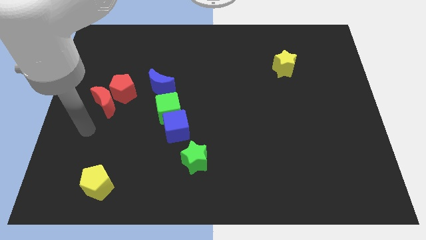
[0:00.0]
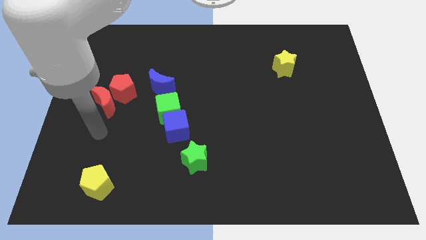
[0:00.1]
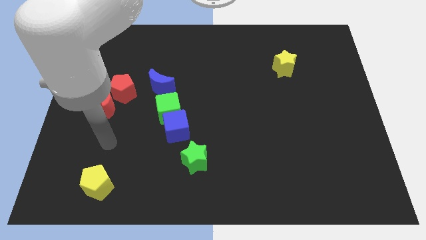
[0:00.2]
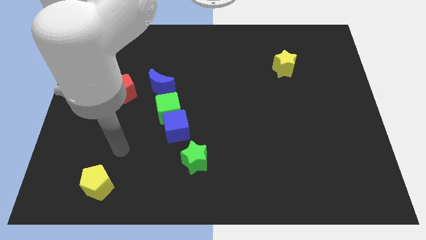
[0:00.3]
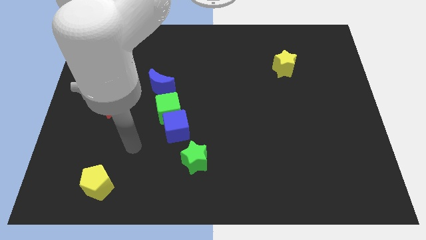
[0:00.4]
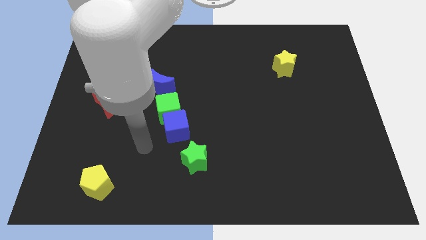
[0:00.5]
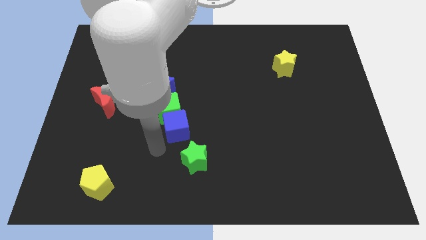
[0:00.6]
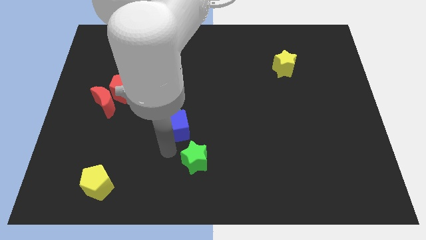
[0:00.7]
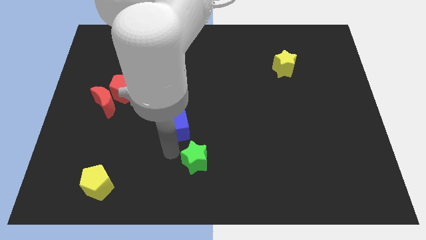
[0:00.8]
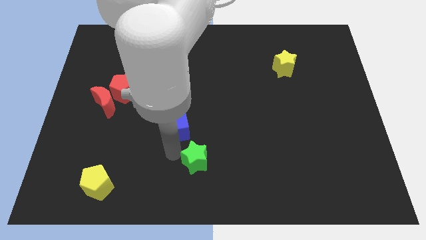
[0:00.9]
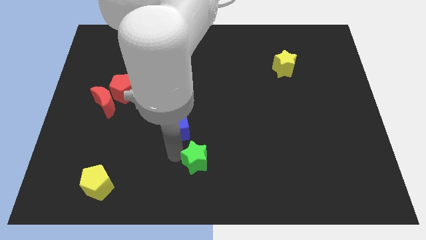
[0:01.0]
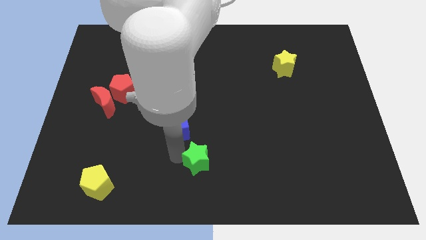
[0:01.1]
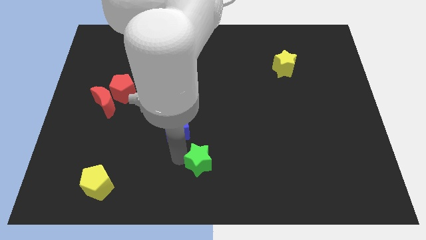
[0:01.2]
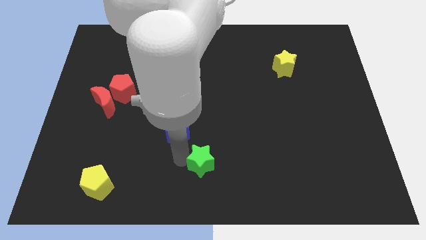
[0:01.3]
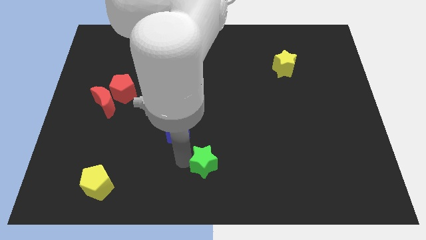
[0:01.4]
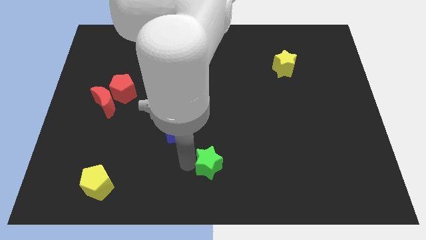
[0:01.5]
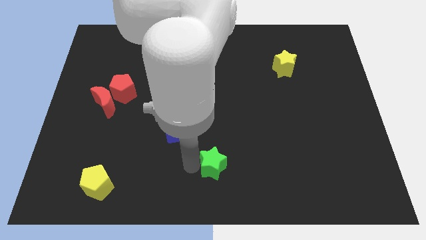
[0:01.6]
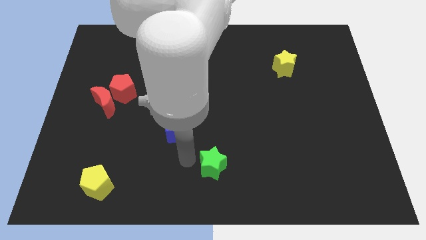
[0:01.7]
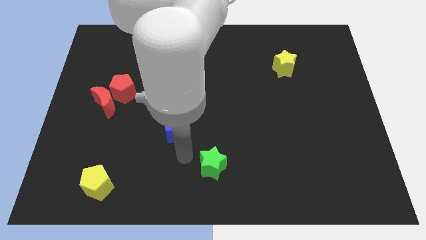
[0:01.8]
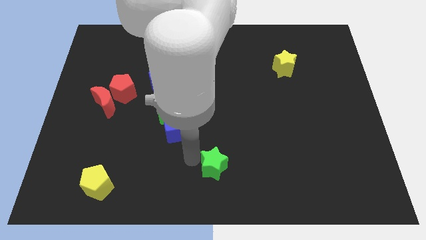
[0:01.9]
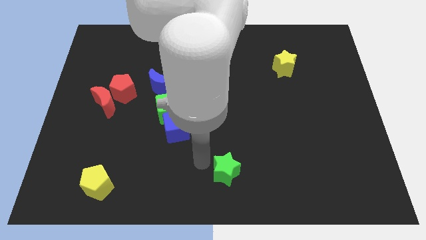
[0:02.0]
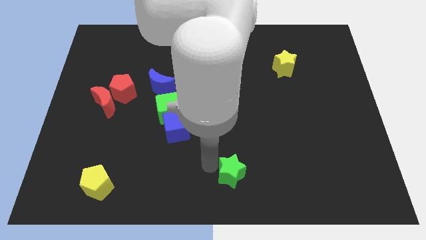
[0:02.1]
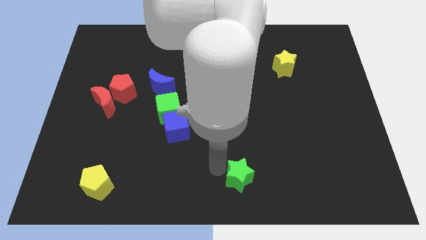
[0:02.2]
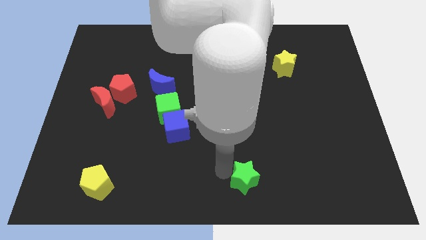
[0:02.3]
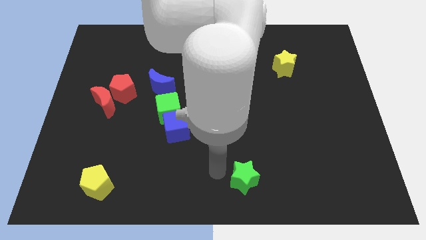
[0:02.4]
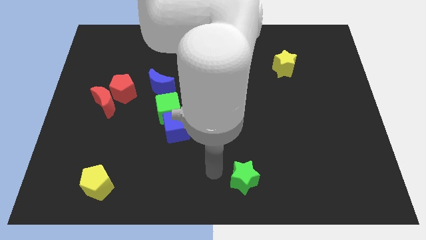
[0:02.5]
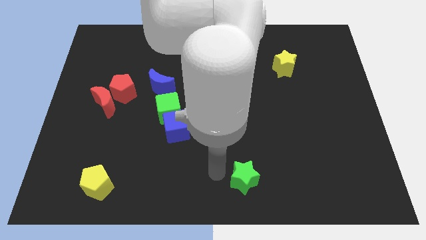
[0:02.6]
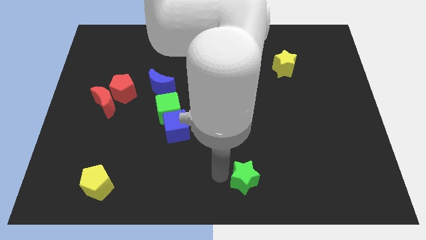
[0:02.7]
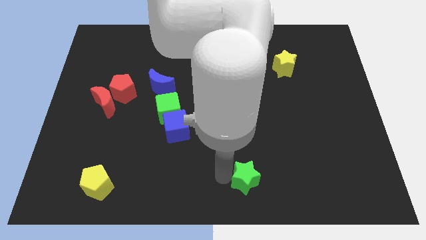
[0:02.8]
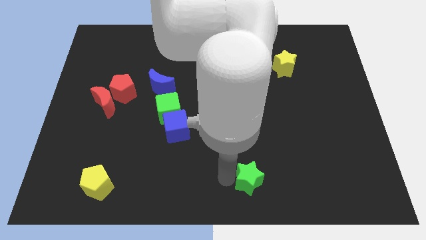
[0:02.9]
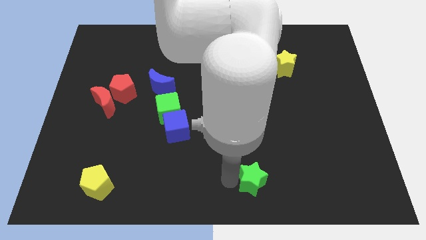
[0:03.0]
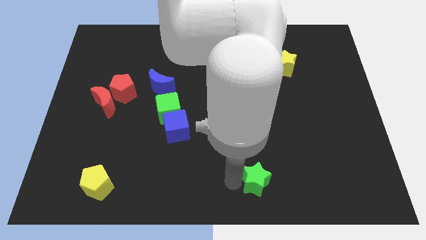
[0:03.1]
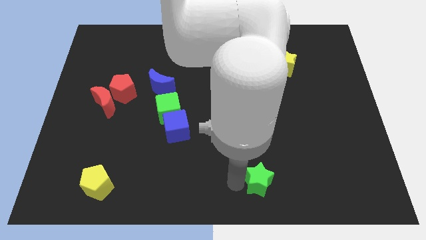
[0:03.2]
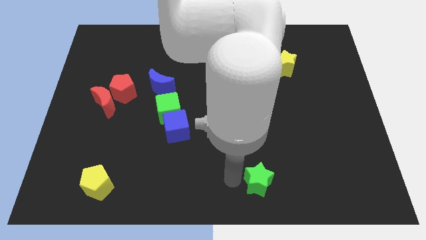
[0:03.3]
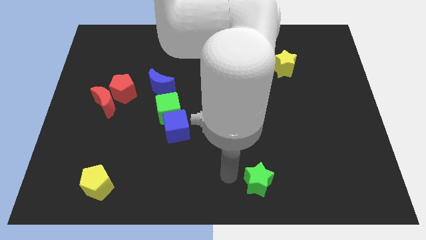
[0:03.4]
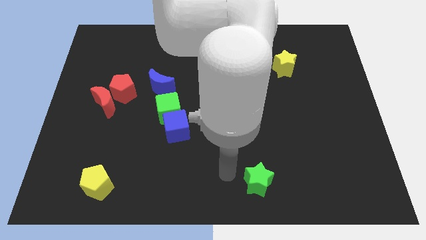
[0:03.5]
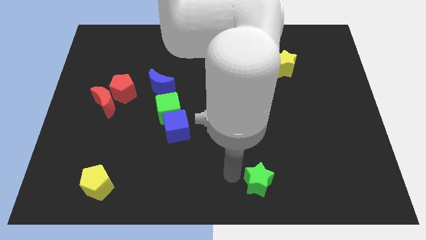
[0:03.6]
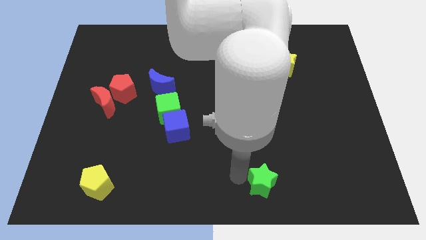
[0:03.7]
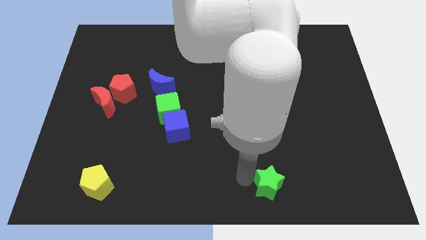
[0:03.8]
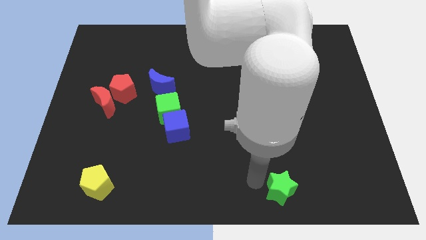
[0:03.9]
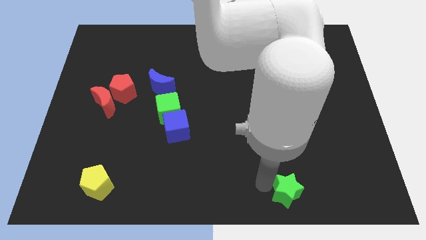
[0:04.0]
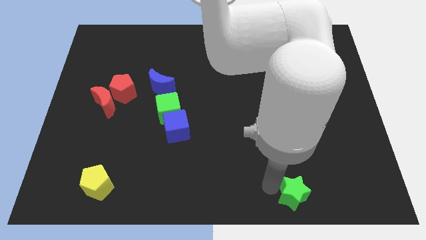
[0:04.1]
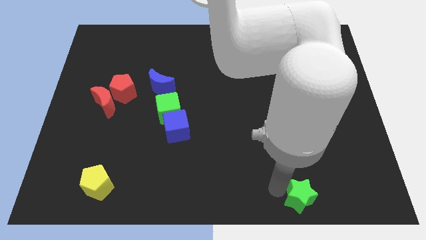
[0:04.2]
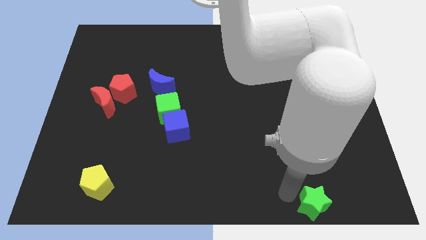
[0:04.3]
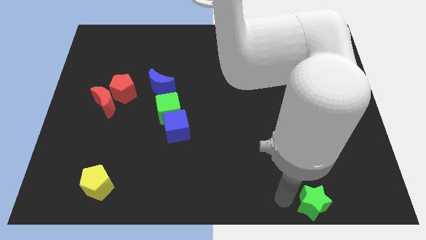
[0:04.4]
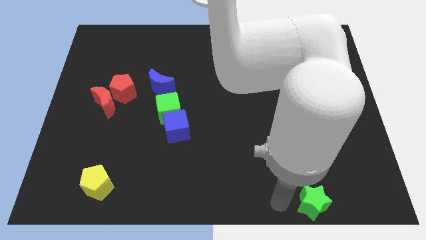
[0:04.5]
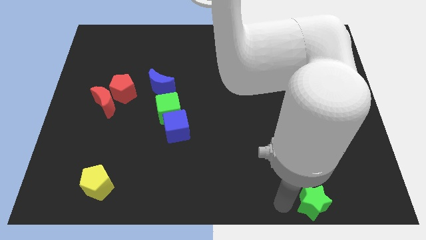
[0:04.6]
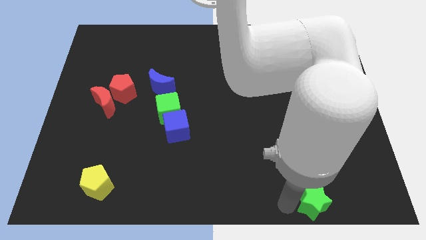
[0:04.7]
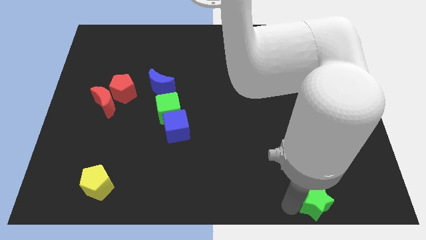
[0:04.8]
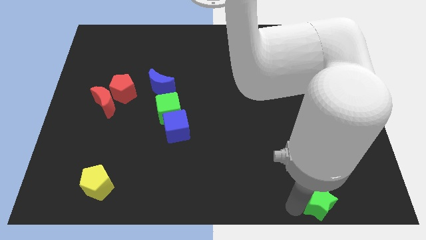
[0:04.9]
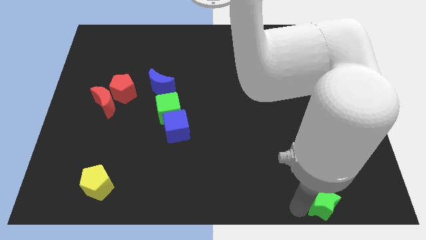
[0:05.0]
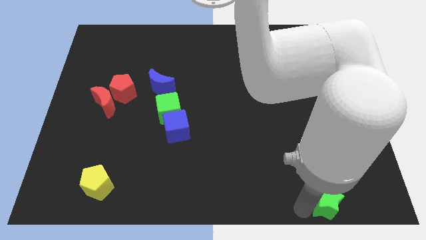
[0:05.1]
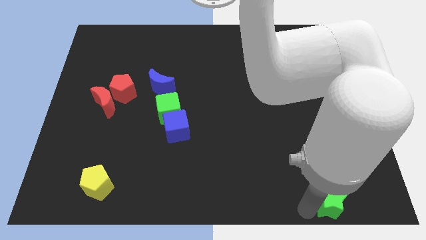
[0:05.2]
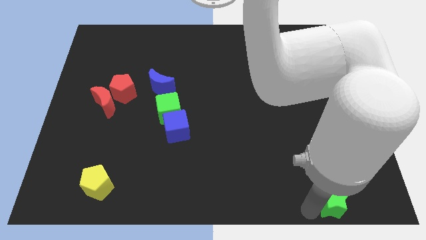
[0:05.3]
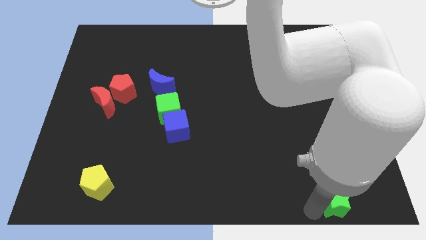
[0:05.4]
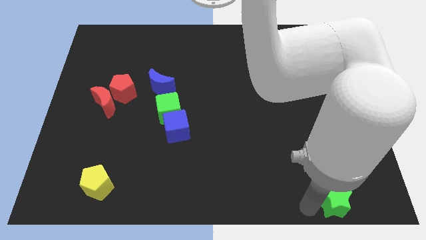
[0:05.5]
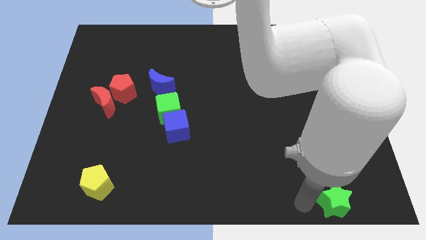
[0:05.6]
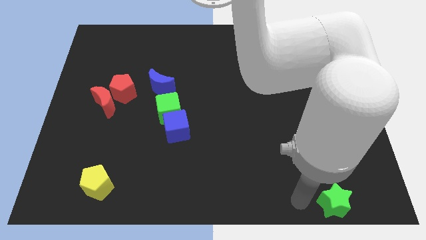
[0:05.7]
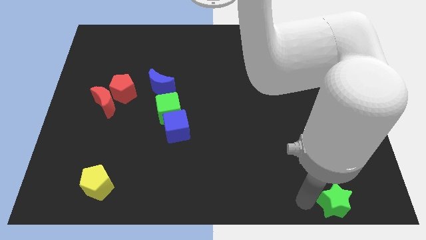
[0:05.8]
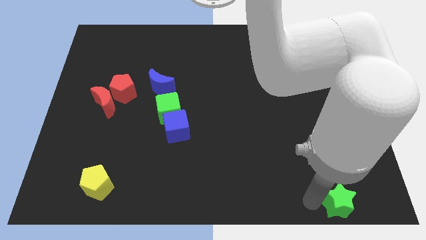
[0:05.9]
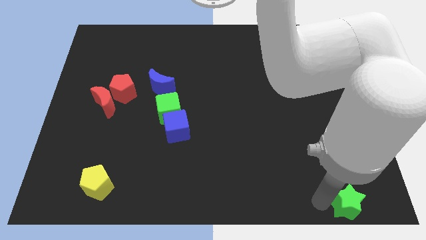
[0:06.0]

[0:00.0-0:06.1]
move the green star to the bottom right of the board

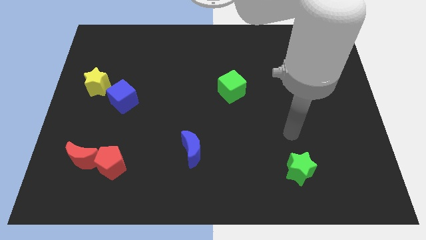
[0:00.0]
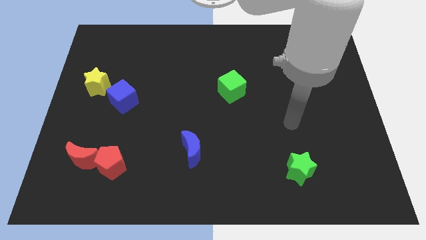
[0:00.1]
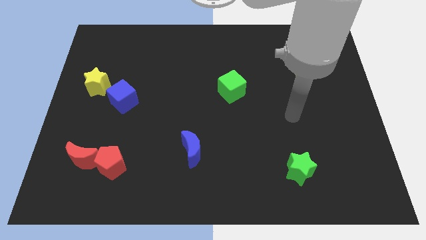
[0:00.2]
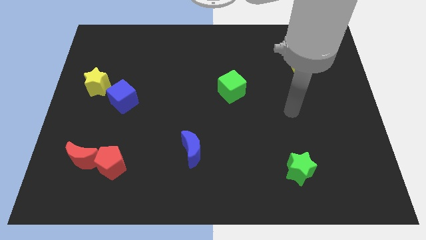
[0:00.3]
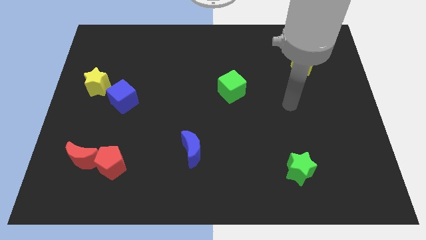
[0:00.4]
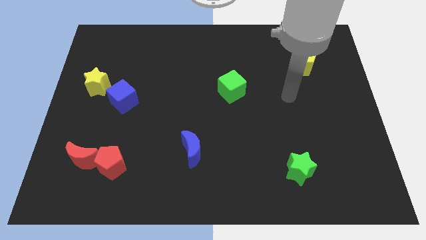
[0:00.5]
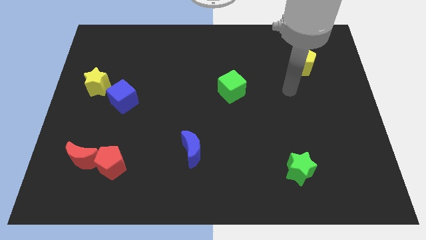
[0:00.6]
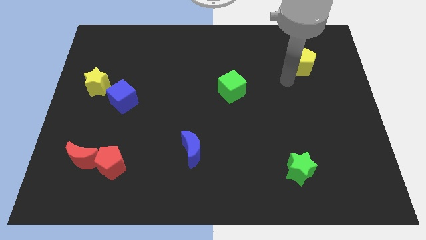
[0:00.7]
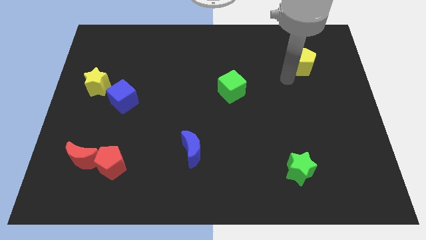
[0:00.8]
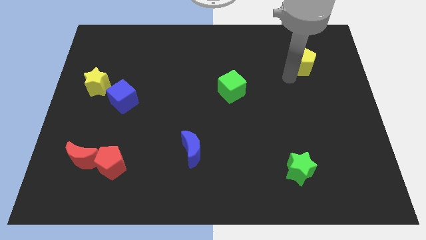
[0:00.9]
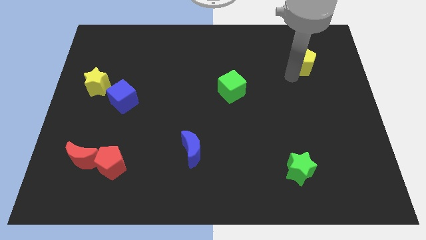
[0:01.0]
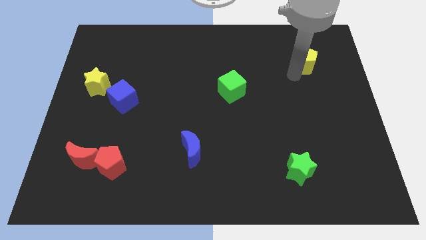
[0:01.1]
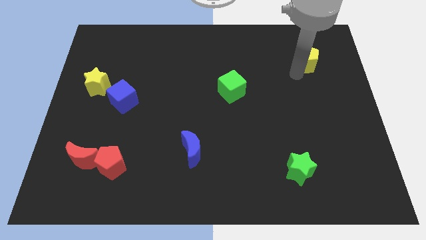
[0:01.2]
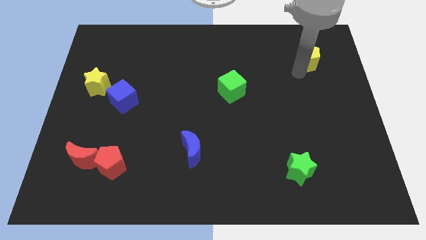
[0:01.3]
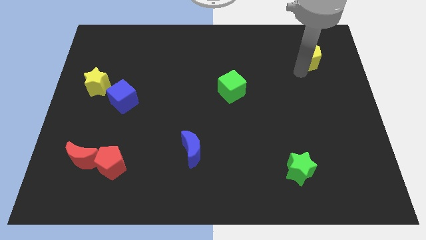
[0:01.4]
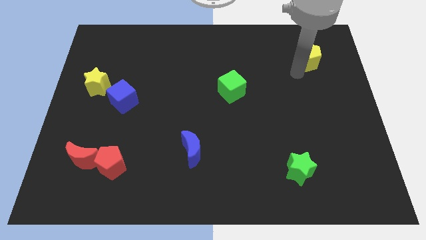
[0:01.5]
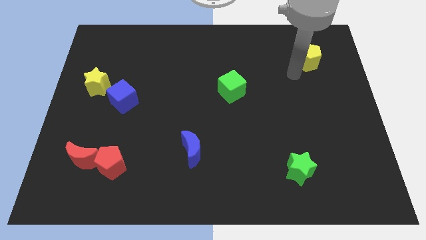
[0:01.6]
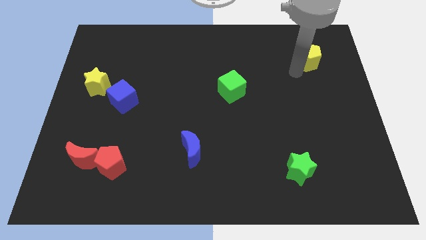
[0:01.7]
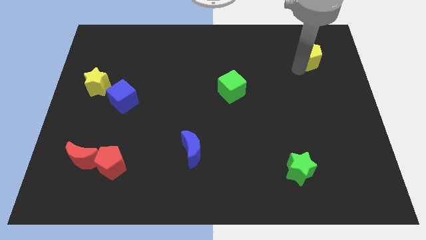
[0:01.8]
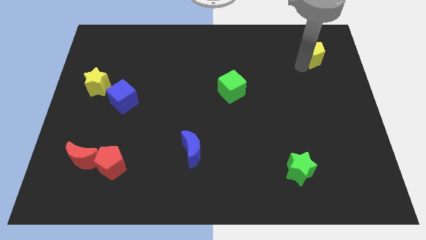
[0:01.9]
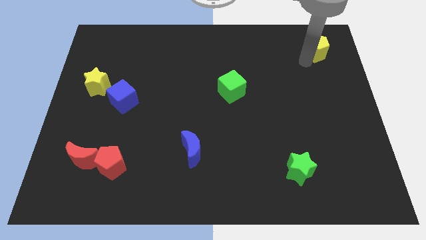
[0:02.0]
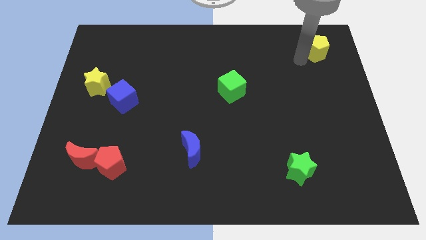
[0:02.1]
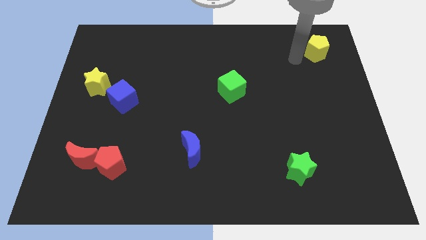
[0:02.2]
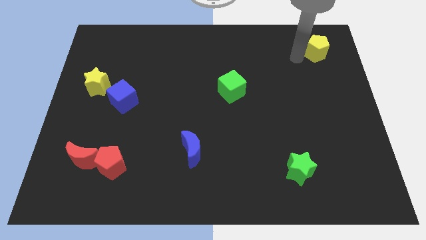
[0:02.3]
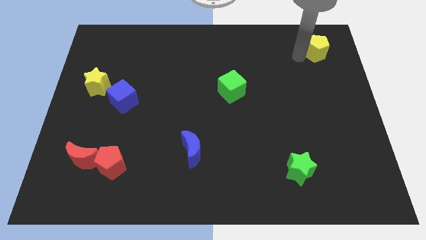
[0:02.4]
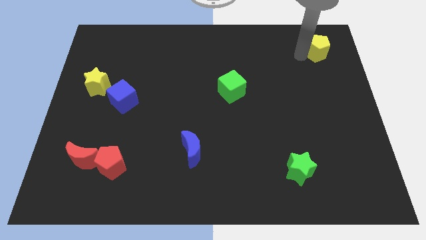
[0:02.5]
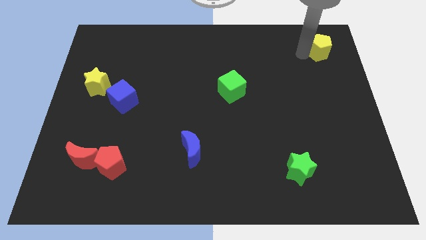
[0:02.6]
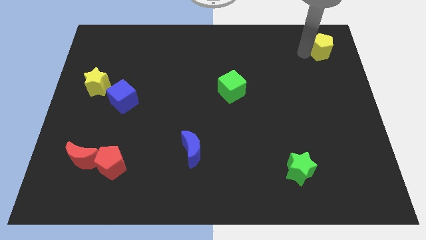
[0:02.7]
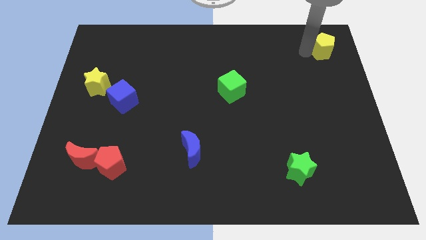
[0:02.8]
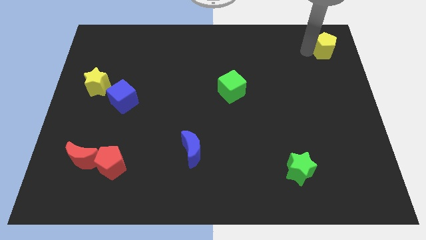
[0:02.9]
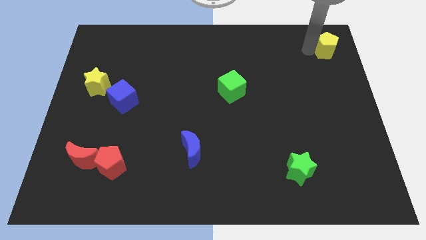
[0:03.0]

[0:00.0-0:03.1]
put the yellow pentagon to the top right
